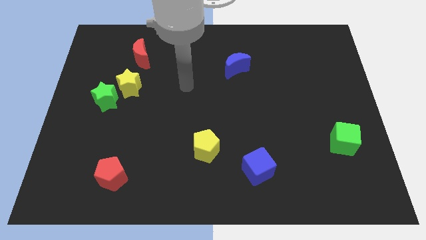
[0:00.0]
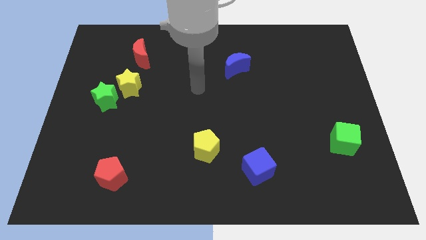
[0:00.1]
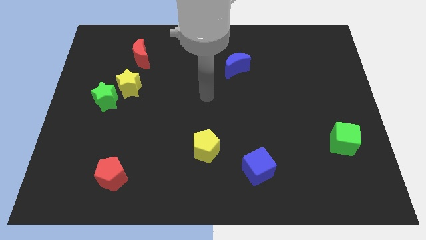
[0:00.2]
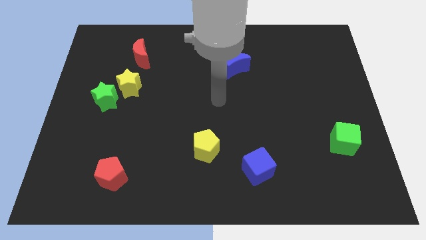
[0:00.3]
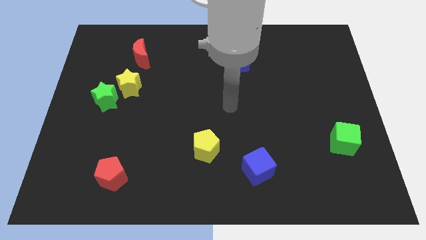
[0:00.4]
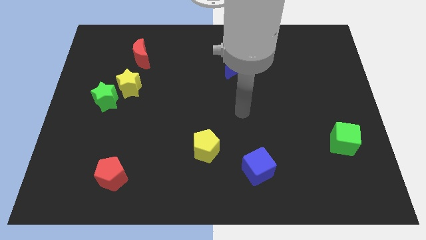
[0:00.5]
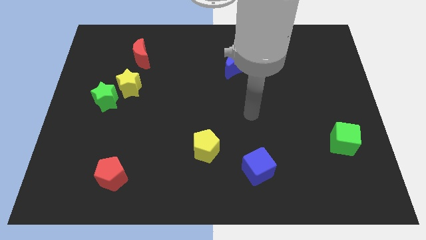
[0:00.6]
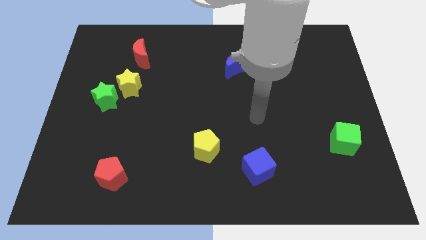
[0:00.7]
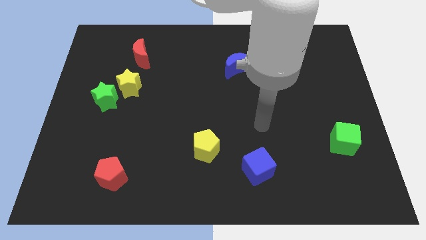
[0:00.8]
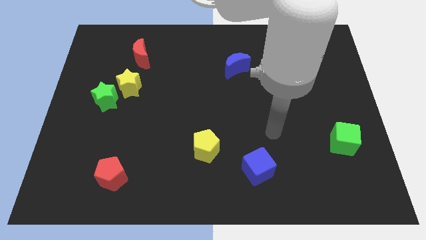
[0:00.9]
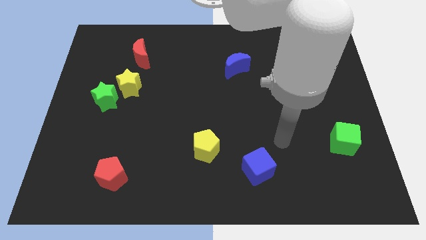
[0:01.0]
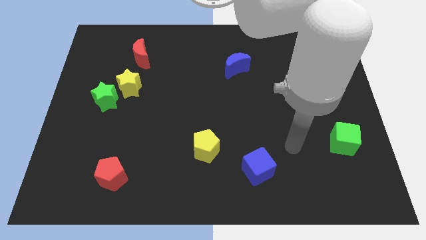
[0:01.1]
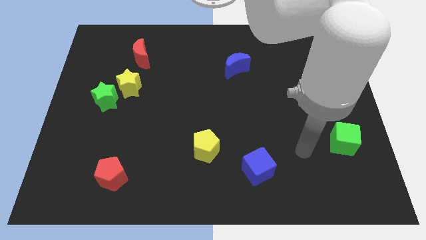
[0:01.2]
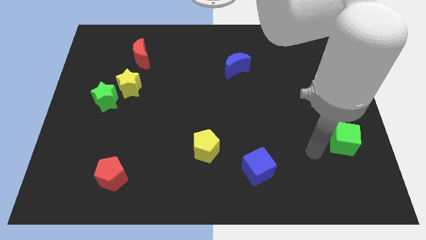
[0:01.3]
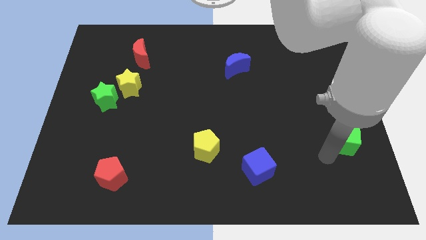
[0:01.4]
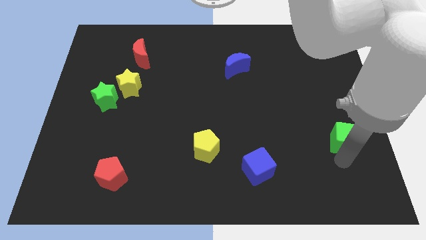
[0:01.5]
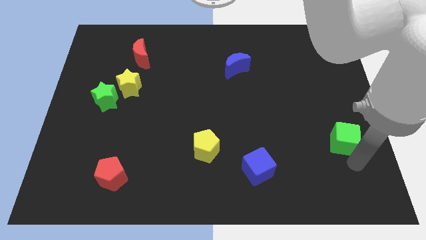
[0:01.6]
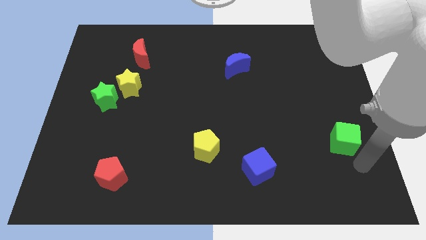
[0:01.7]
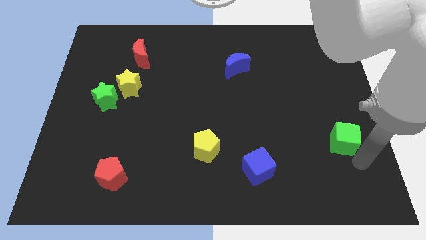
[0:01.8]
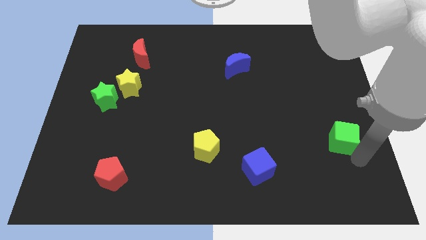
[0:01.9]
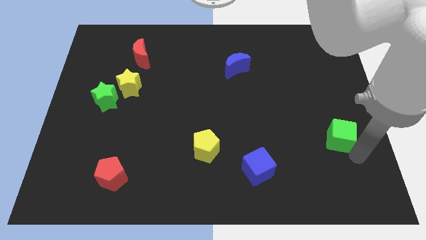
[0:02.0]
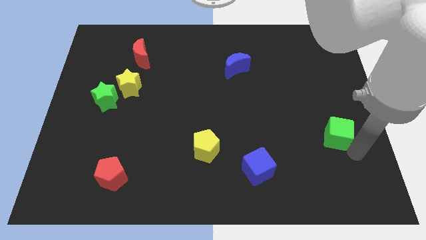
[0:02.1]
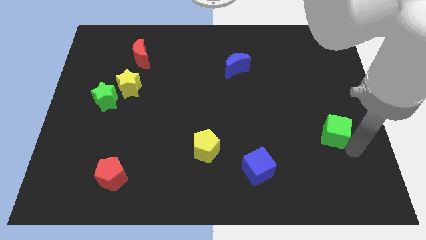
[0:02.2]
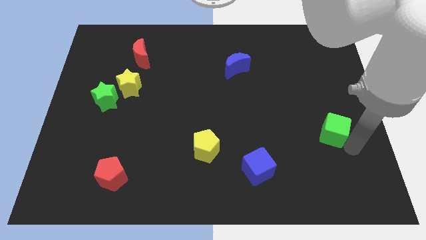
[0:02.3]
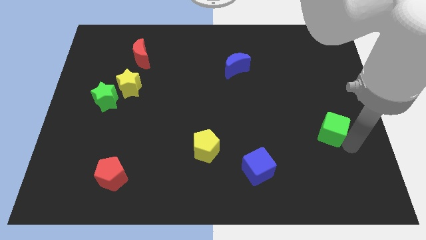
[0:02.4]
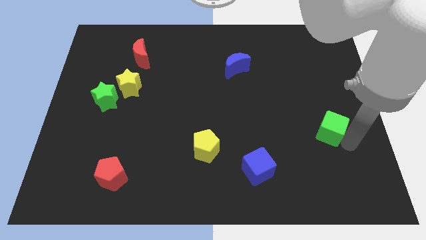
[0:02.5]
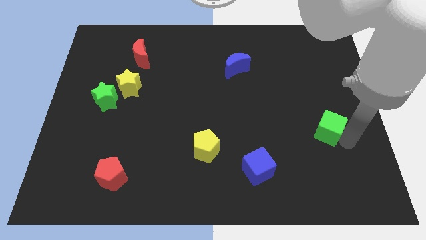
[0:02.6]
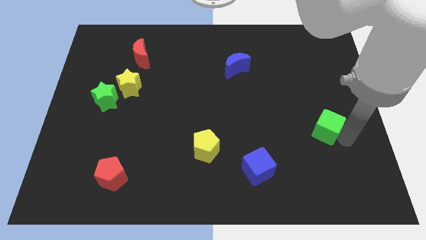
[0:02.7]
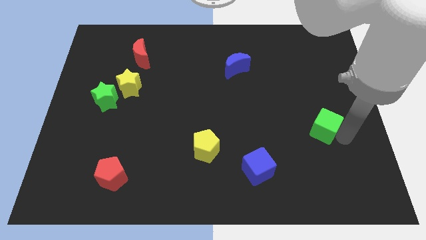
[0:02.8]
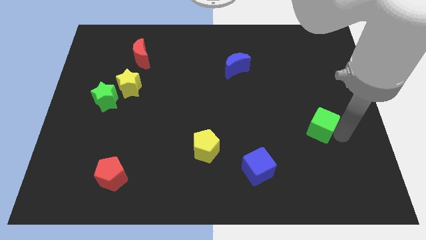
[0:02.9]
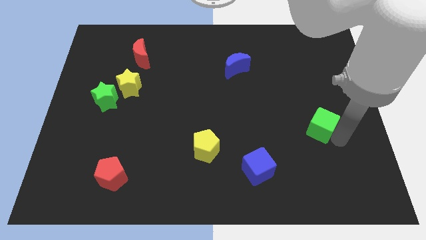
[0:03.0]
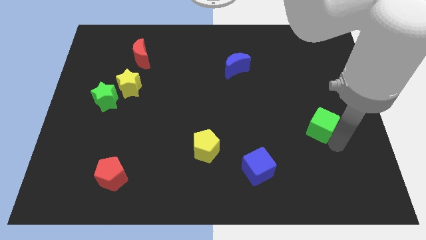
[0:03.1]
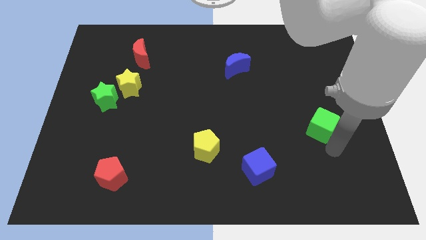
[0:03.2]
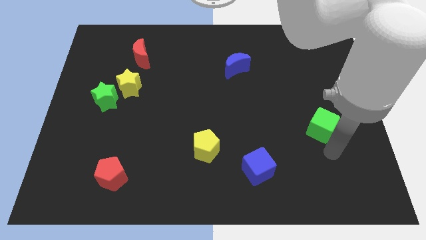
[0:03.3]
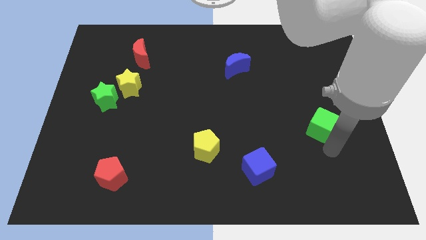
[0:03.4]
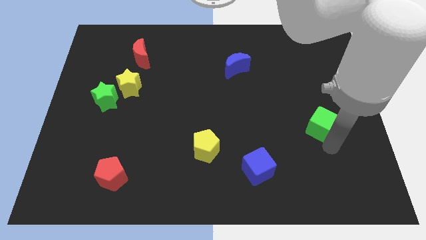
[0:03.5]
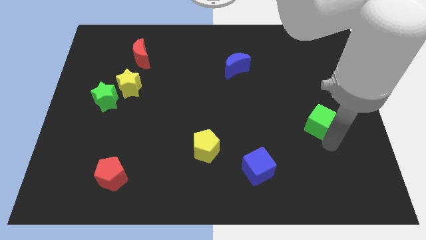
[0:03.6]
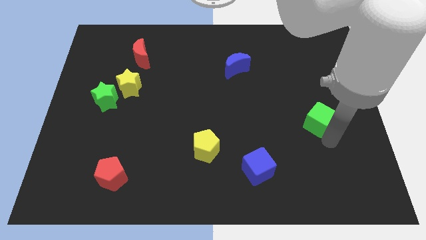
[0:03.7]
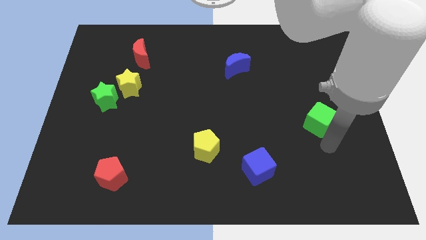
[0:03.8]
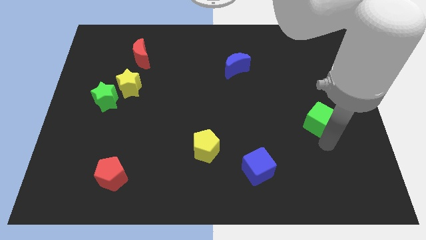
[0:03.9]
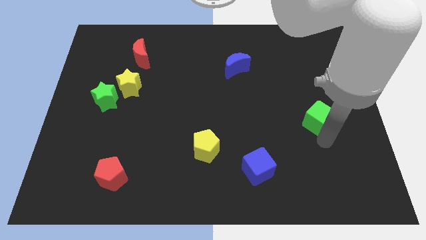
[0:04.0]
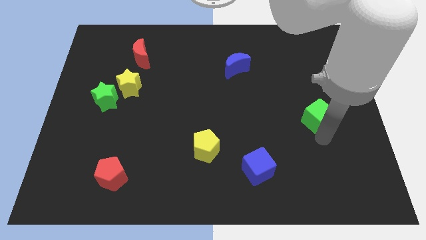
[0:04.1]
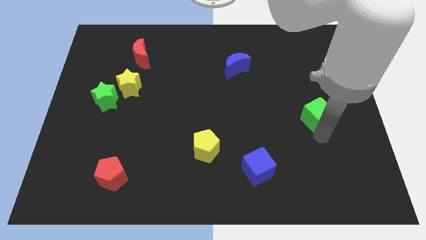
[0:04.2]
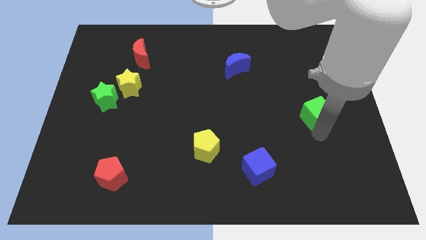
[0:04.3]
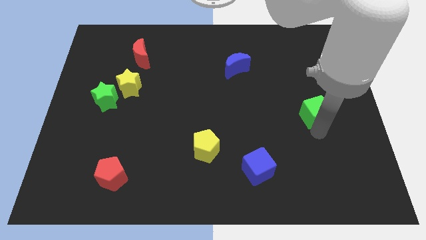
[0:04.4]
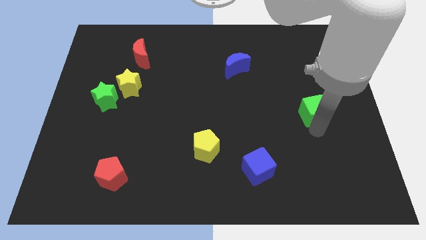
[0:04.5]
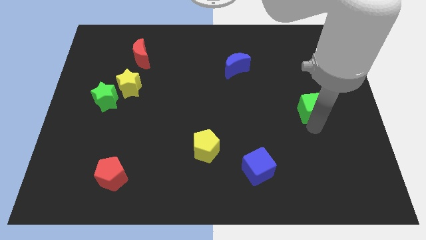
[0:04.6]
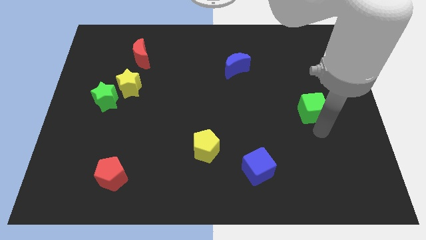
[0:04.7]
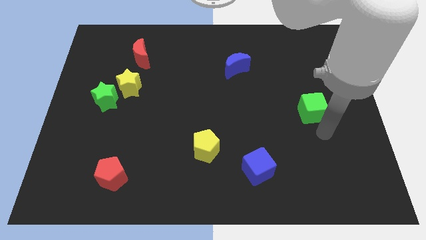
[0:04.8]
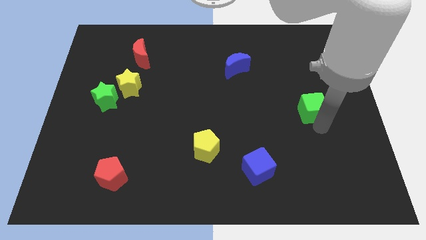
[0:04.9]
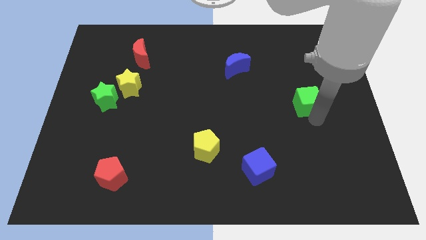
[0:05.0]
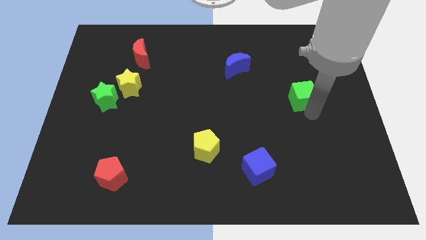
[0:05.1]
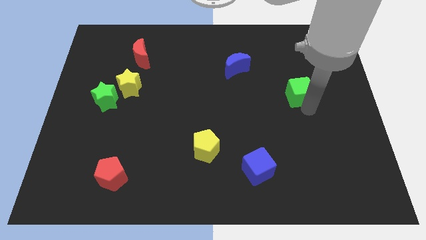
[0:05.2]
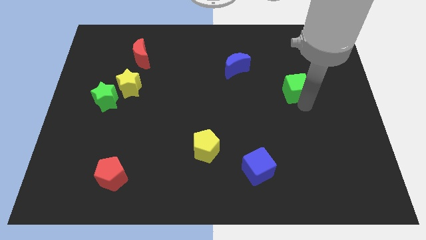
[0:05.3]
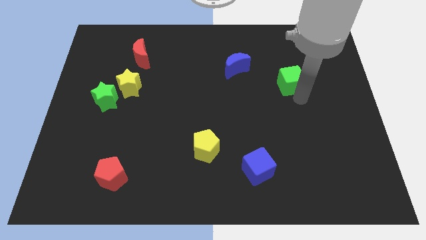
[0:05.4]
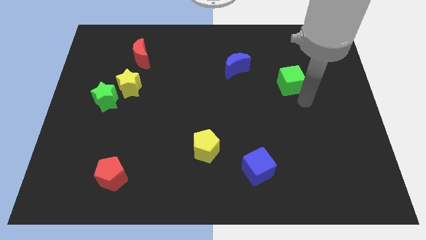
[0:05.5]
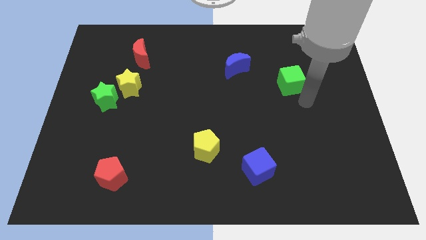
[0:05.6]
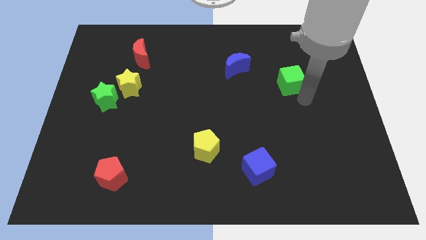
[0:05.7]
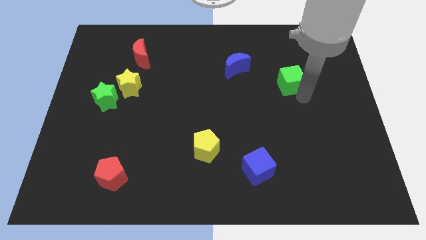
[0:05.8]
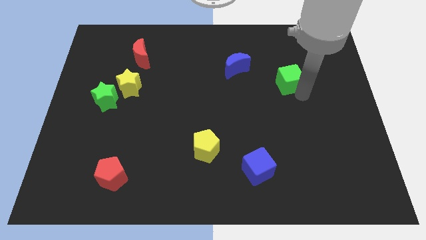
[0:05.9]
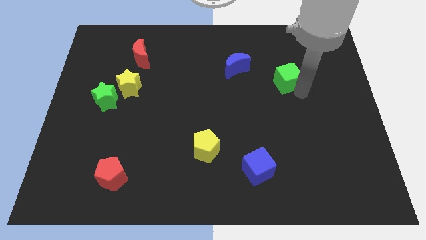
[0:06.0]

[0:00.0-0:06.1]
put the green cube just right of the blue moon

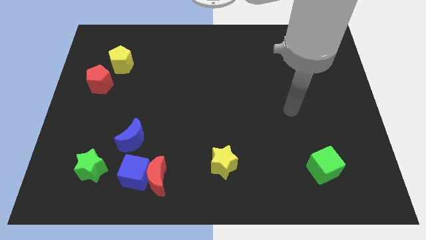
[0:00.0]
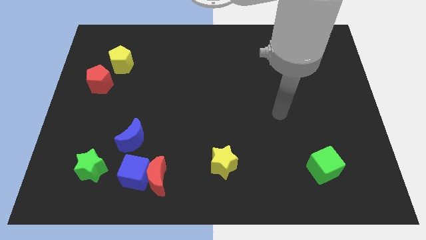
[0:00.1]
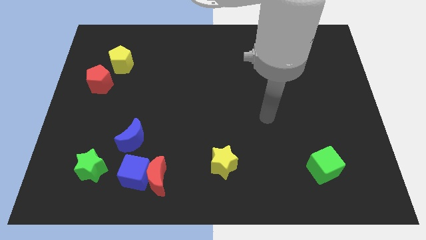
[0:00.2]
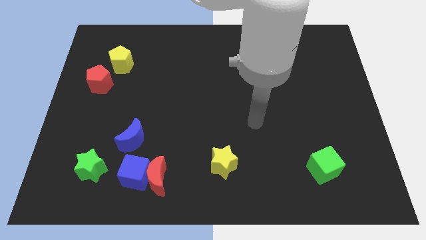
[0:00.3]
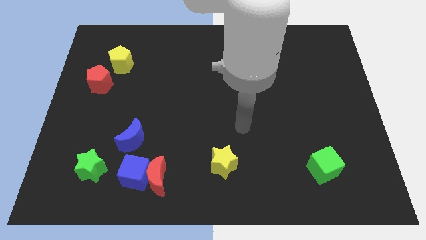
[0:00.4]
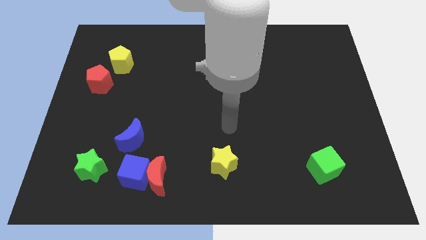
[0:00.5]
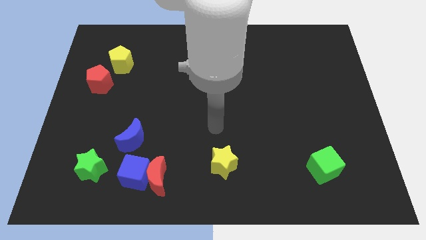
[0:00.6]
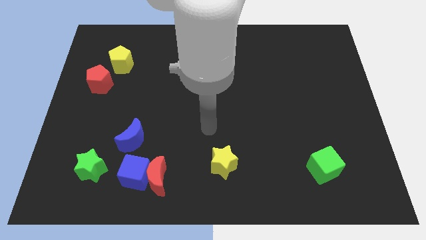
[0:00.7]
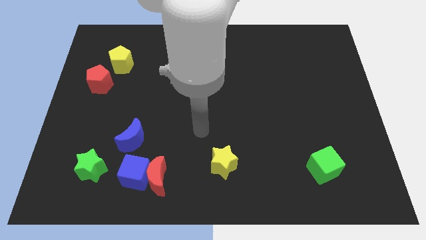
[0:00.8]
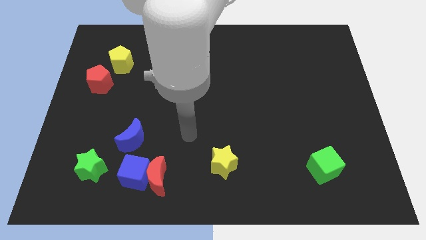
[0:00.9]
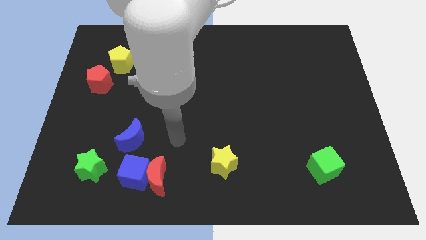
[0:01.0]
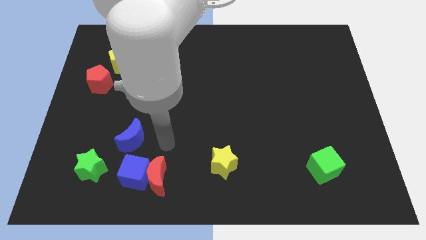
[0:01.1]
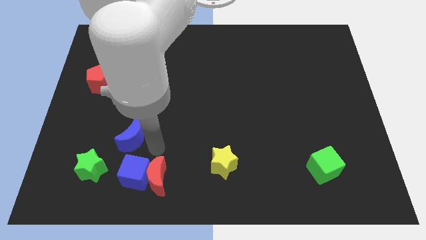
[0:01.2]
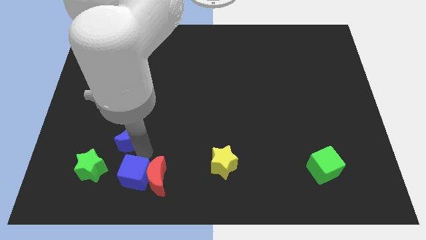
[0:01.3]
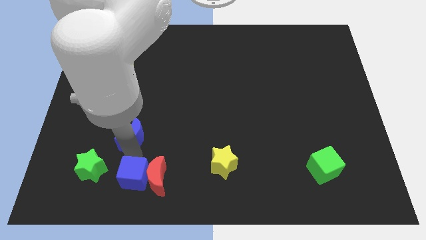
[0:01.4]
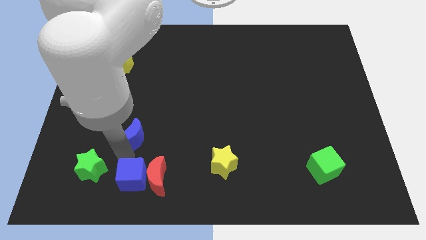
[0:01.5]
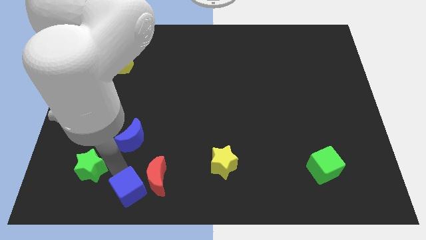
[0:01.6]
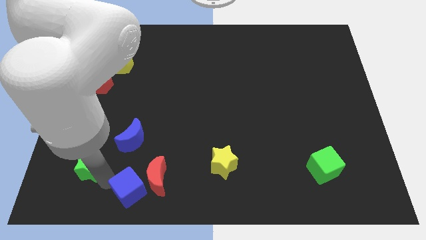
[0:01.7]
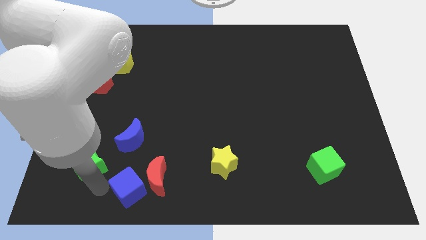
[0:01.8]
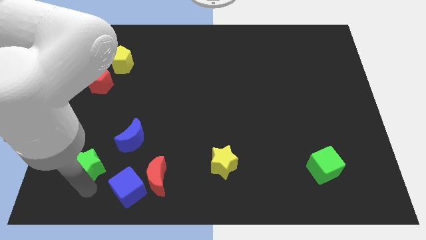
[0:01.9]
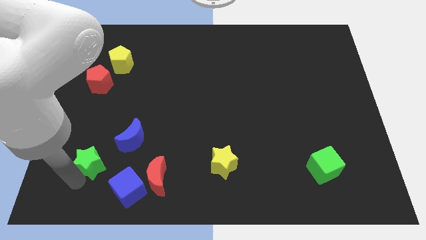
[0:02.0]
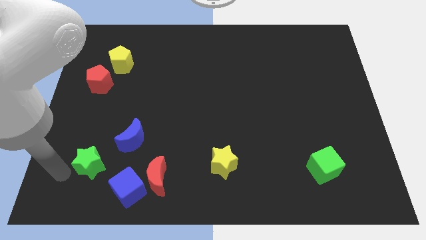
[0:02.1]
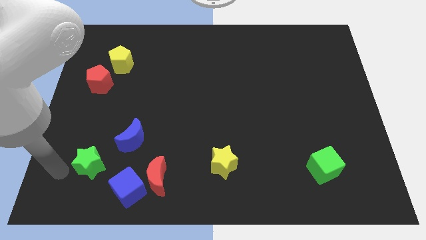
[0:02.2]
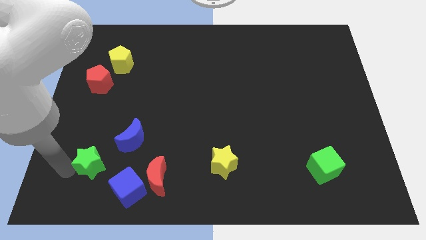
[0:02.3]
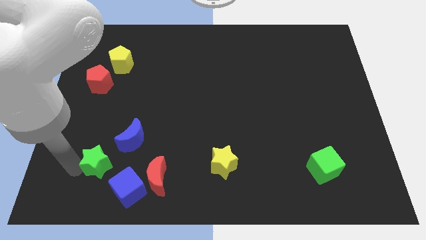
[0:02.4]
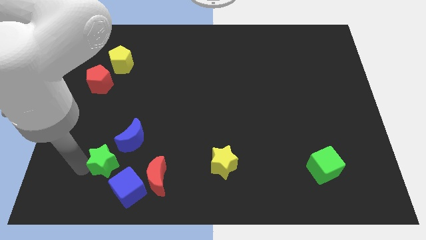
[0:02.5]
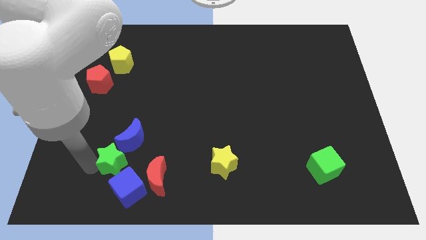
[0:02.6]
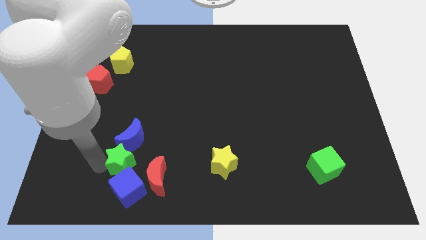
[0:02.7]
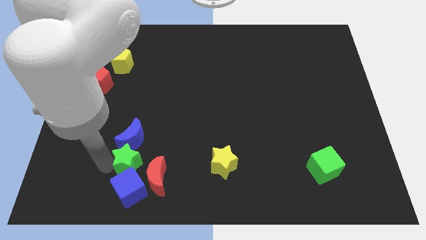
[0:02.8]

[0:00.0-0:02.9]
push the green star to the bottom right side of the blue moon
